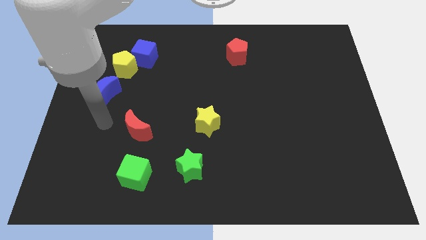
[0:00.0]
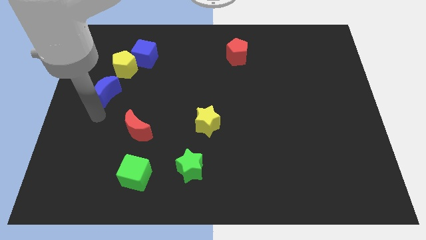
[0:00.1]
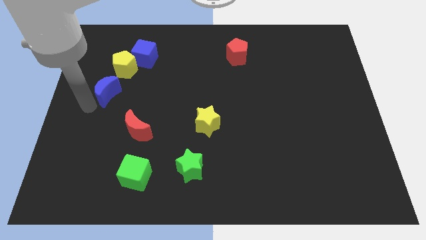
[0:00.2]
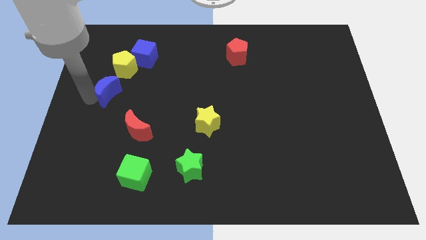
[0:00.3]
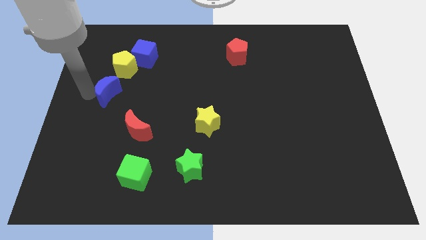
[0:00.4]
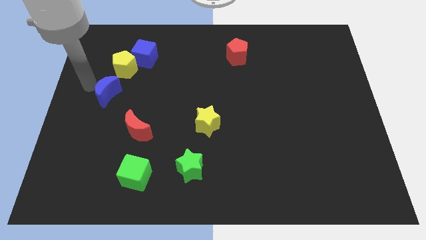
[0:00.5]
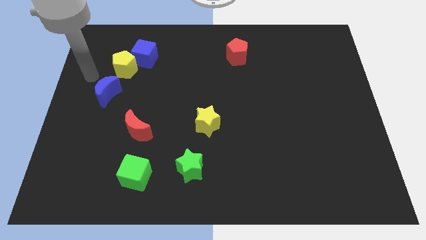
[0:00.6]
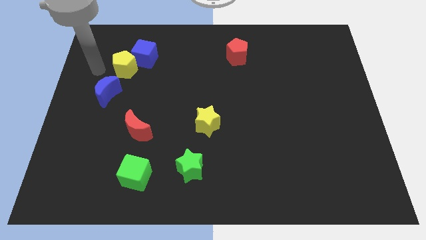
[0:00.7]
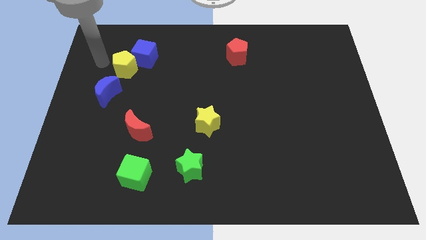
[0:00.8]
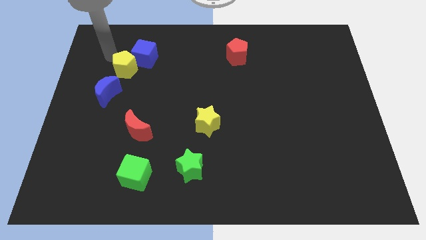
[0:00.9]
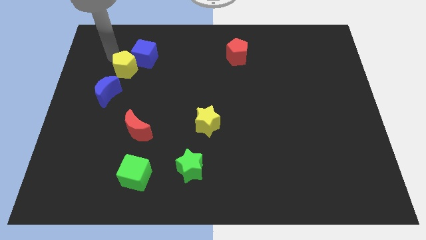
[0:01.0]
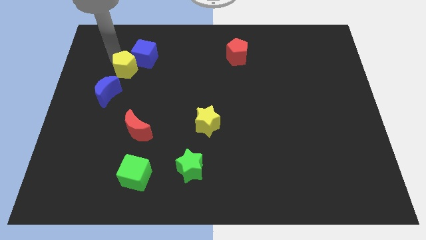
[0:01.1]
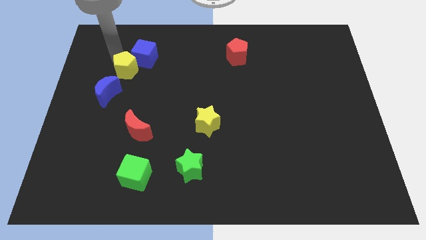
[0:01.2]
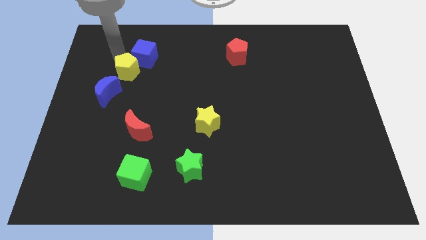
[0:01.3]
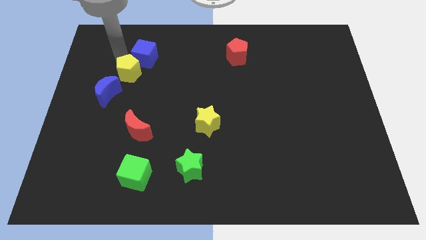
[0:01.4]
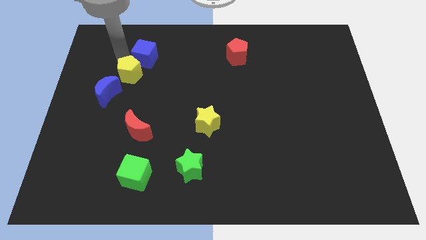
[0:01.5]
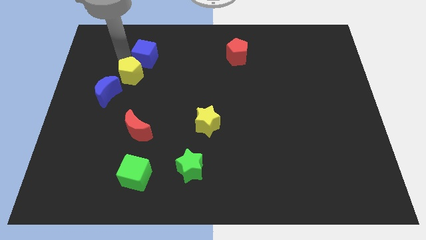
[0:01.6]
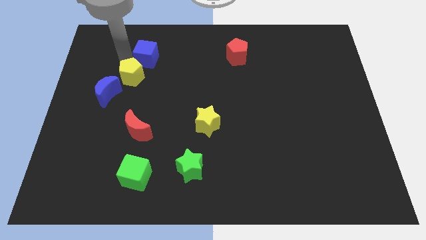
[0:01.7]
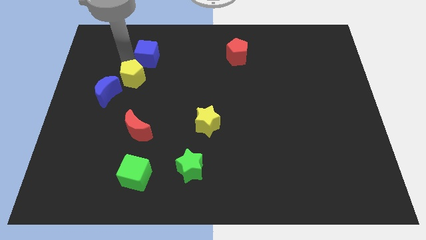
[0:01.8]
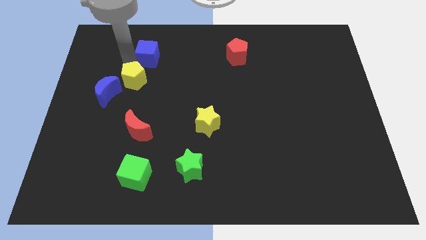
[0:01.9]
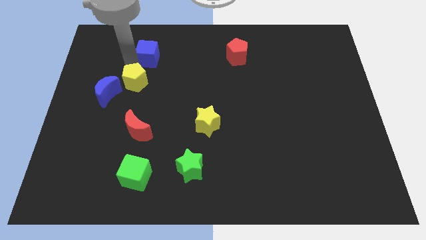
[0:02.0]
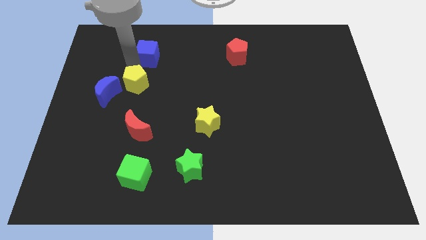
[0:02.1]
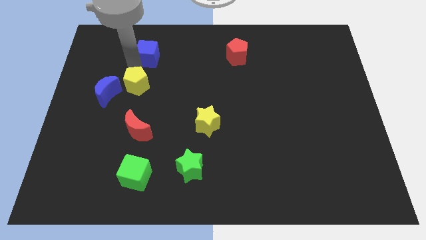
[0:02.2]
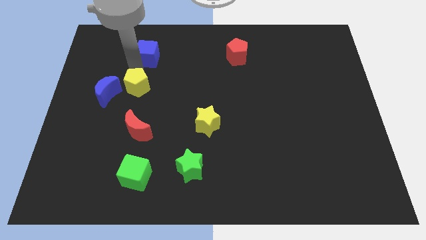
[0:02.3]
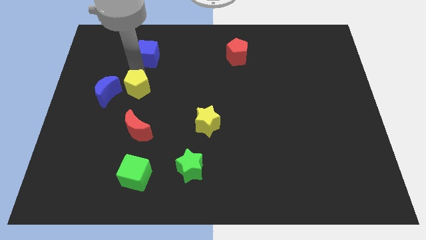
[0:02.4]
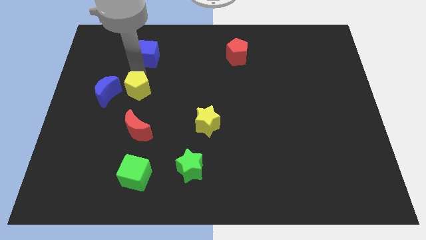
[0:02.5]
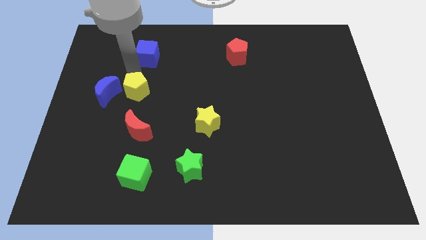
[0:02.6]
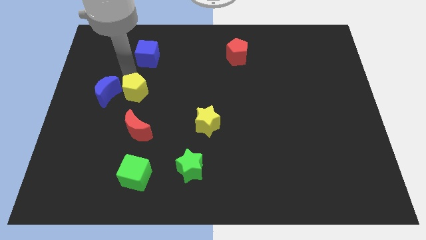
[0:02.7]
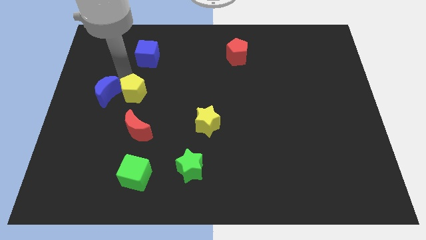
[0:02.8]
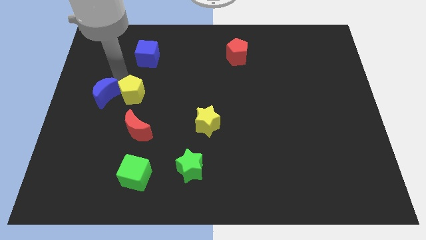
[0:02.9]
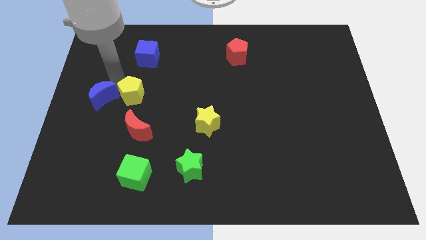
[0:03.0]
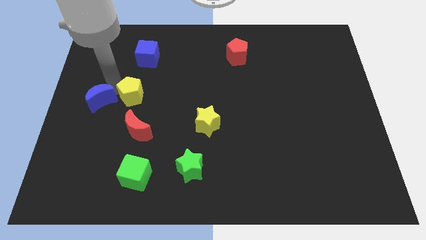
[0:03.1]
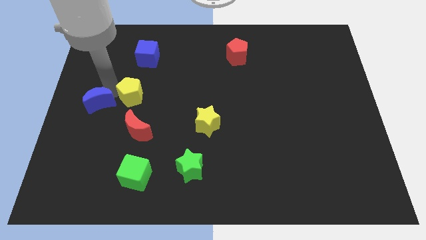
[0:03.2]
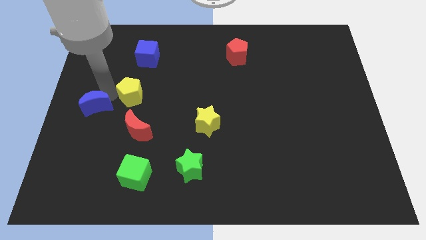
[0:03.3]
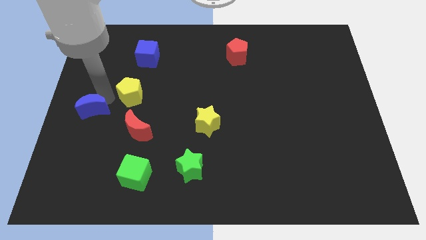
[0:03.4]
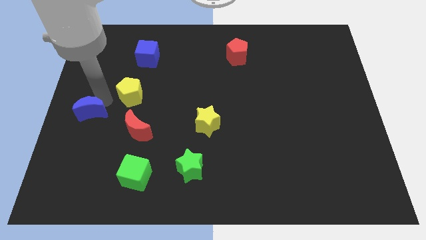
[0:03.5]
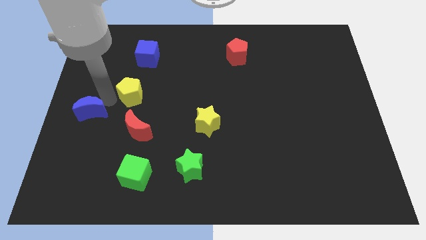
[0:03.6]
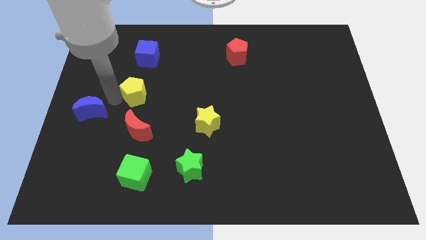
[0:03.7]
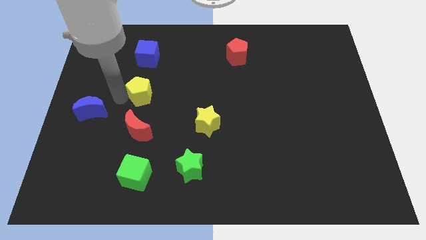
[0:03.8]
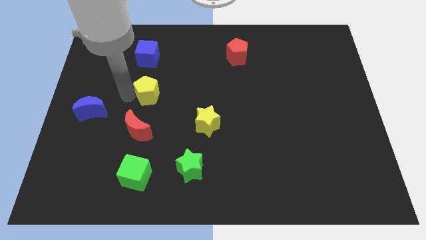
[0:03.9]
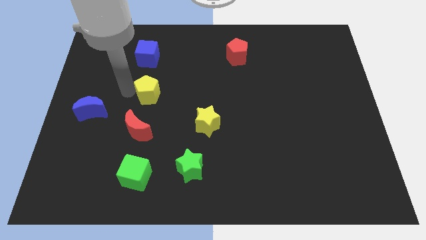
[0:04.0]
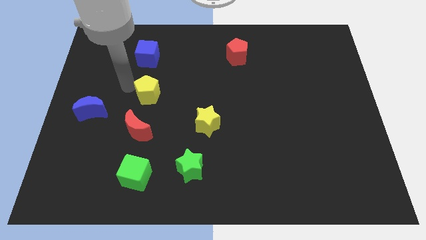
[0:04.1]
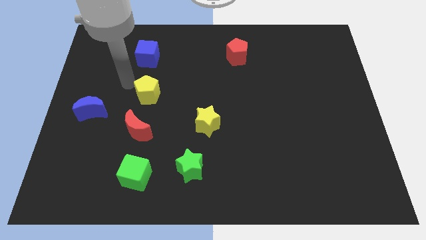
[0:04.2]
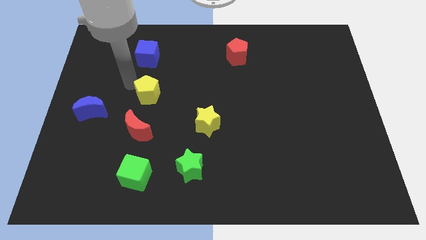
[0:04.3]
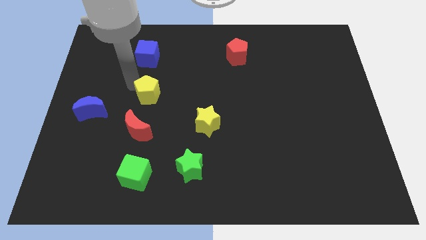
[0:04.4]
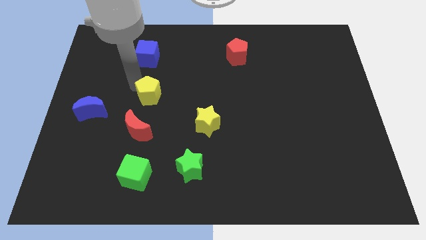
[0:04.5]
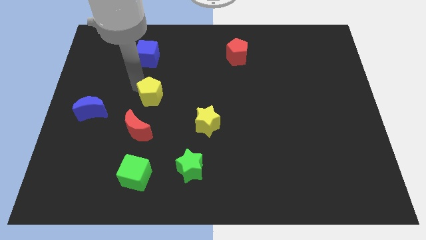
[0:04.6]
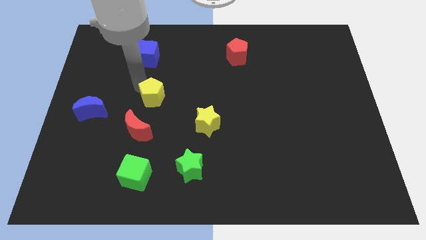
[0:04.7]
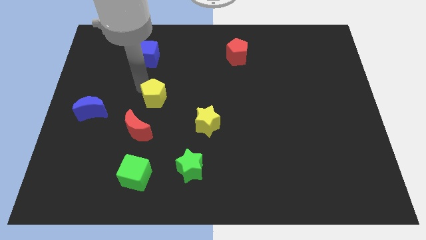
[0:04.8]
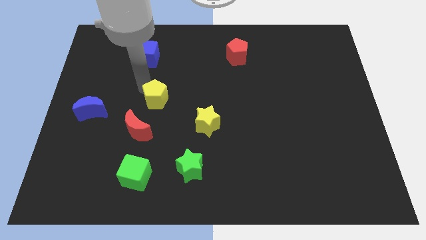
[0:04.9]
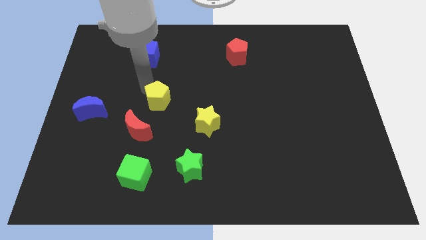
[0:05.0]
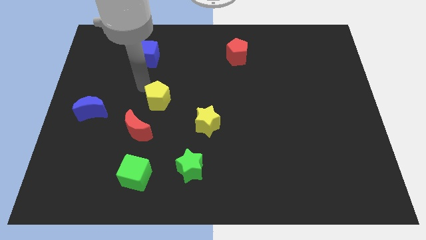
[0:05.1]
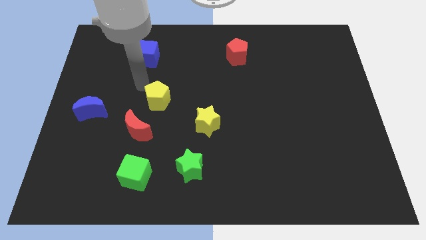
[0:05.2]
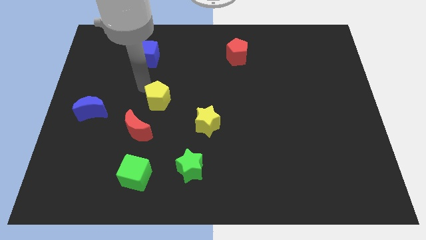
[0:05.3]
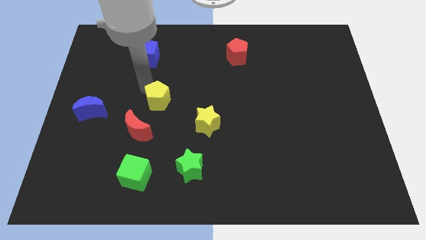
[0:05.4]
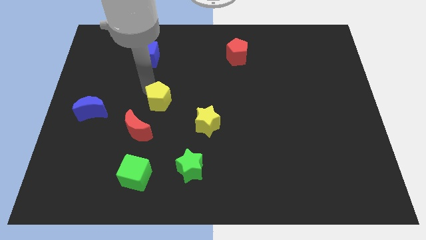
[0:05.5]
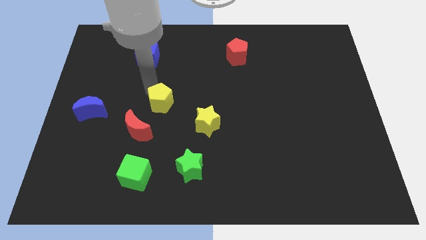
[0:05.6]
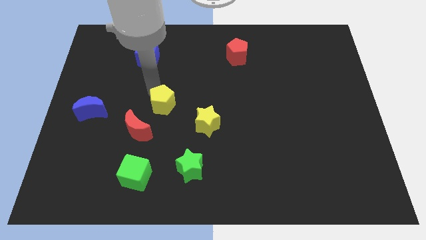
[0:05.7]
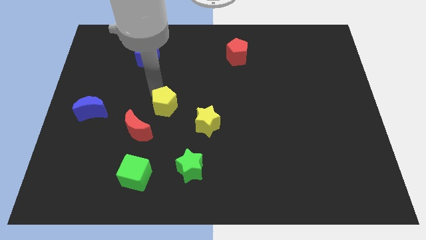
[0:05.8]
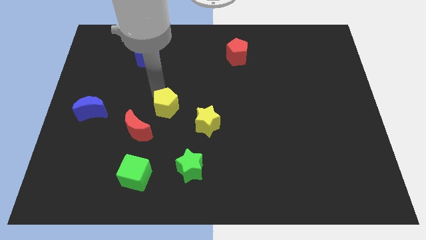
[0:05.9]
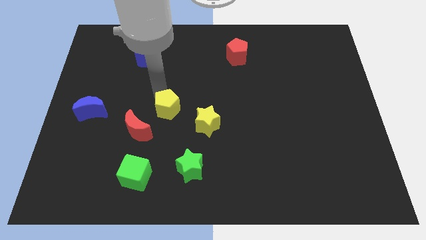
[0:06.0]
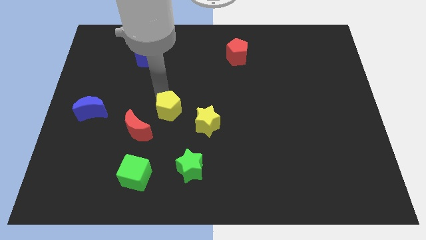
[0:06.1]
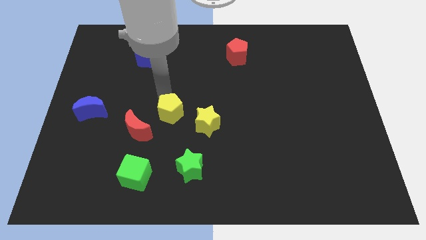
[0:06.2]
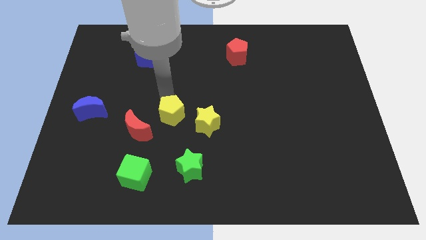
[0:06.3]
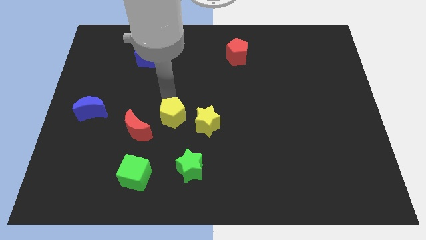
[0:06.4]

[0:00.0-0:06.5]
move the yellow pentagon down and then right

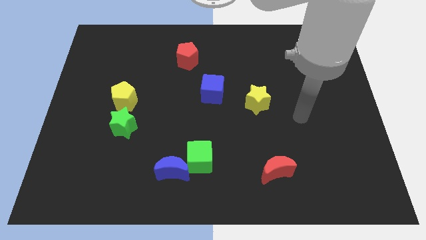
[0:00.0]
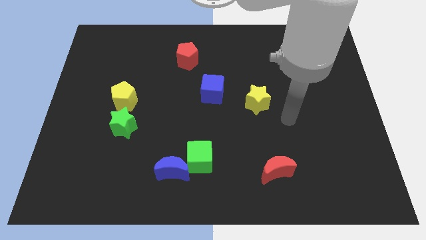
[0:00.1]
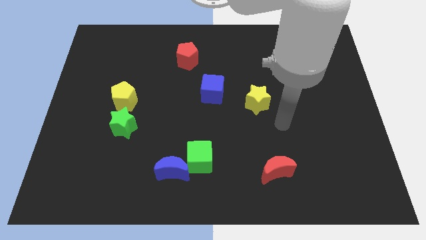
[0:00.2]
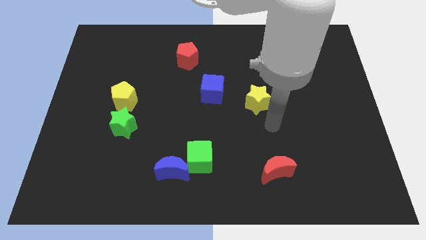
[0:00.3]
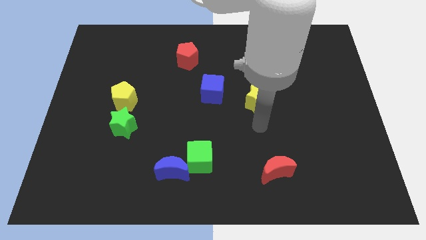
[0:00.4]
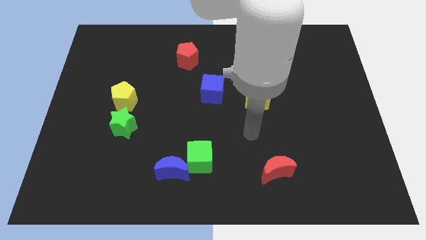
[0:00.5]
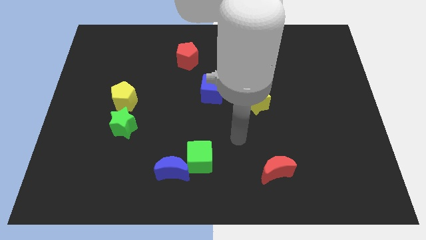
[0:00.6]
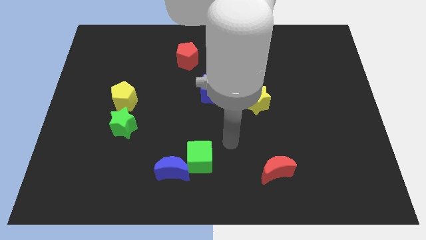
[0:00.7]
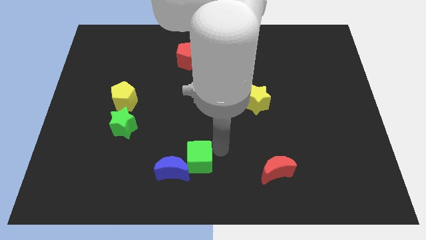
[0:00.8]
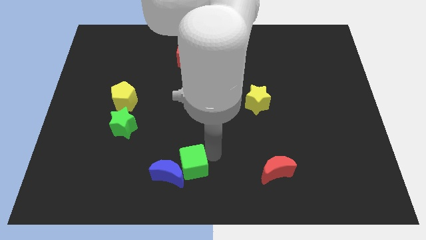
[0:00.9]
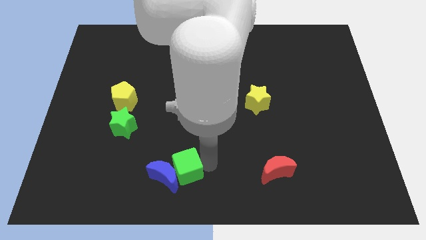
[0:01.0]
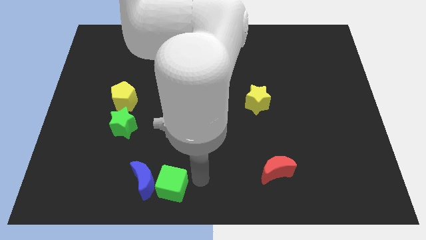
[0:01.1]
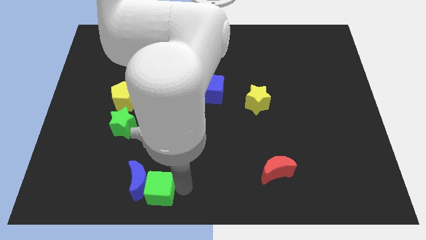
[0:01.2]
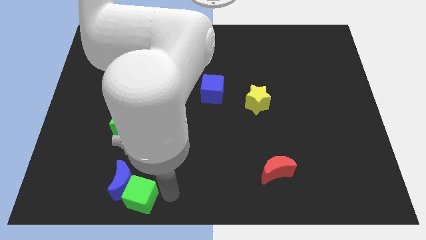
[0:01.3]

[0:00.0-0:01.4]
move the blue moon somewhat to the left

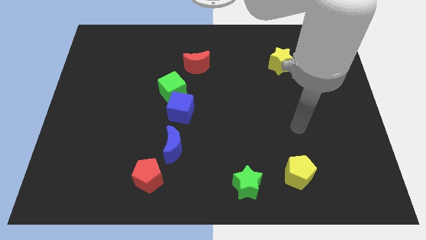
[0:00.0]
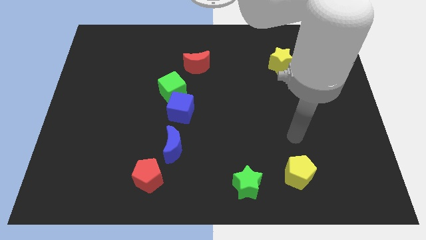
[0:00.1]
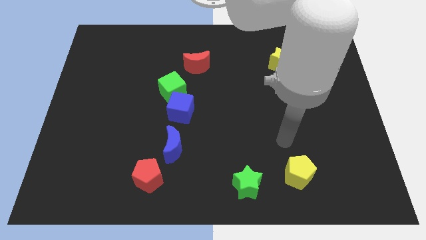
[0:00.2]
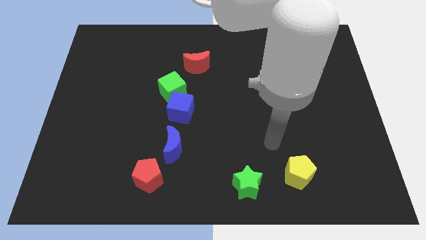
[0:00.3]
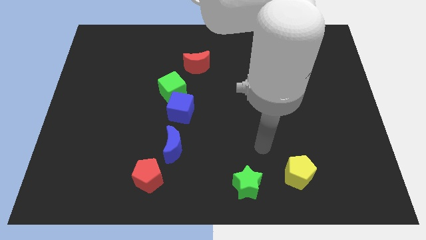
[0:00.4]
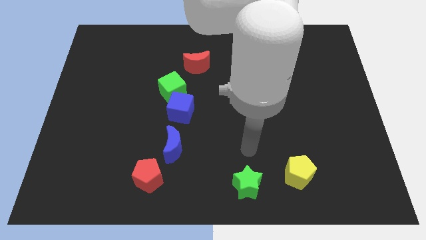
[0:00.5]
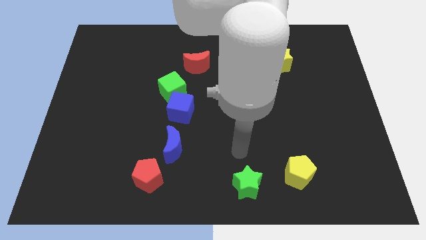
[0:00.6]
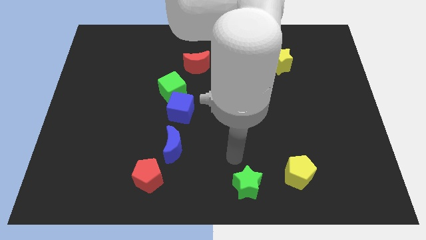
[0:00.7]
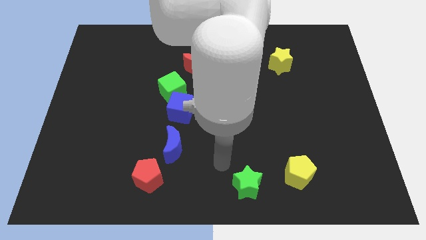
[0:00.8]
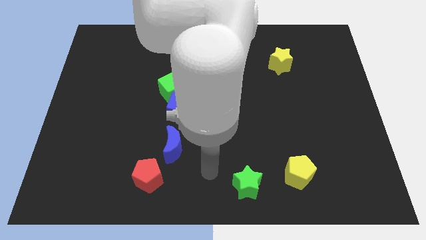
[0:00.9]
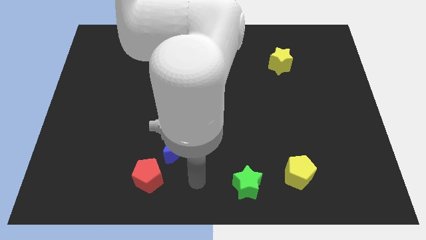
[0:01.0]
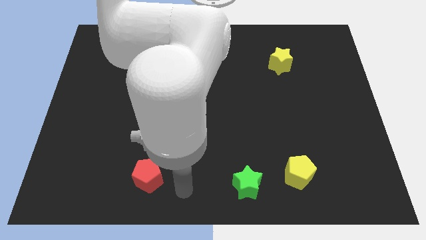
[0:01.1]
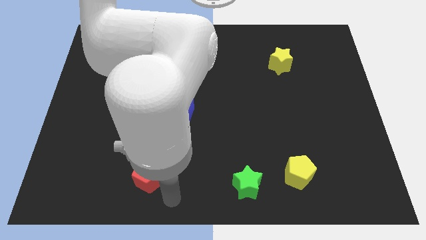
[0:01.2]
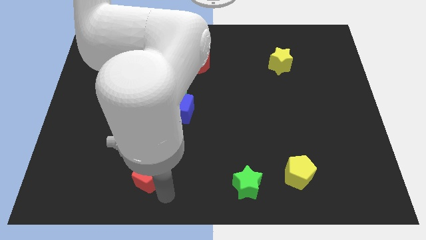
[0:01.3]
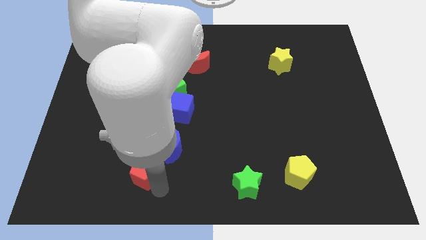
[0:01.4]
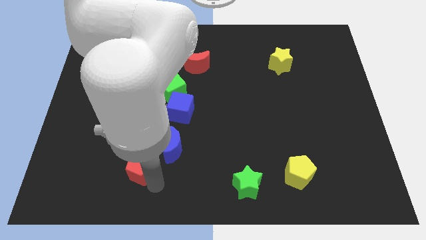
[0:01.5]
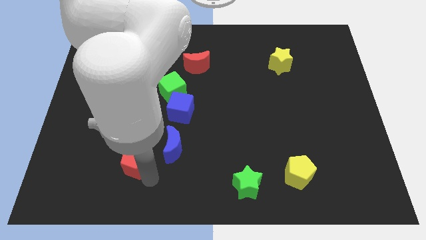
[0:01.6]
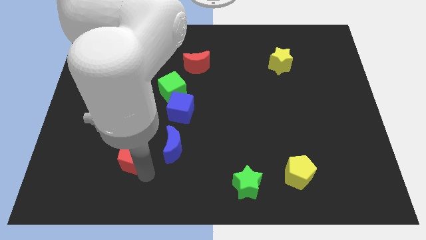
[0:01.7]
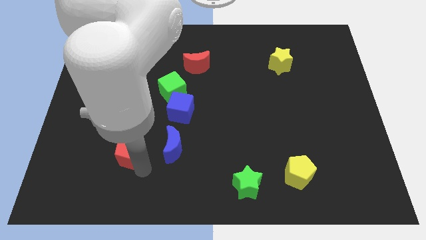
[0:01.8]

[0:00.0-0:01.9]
slightly push the red pentagon diagonally upwards and left
